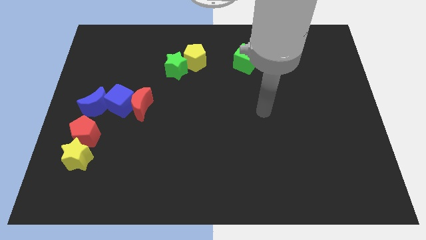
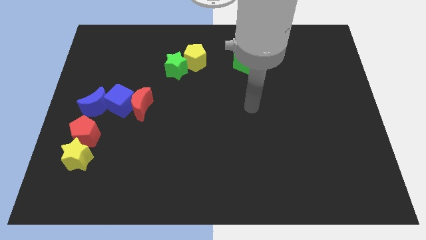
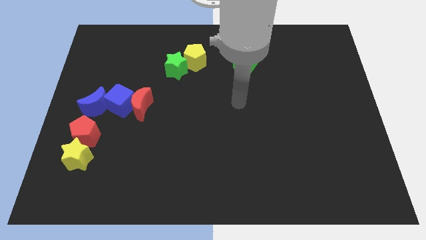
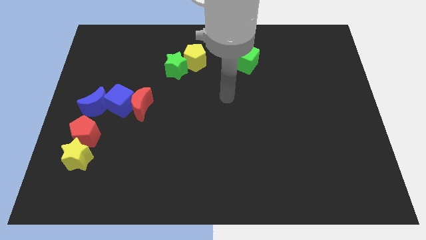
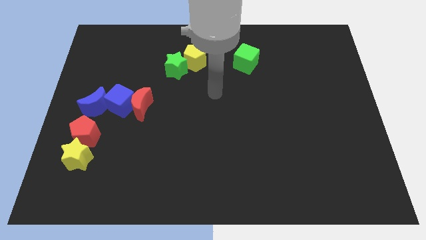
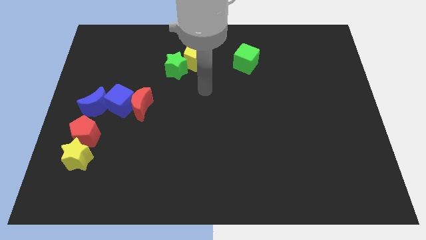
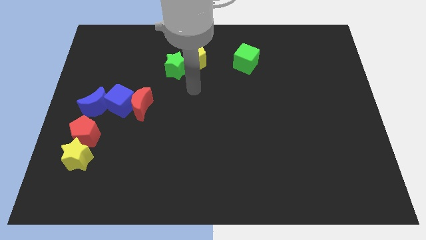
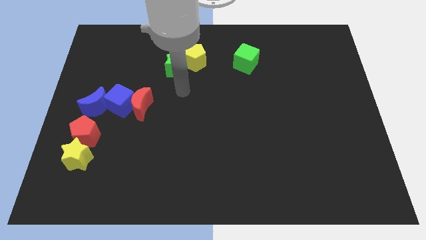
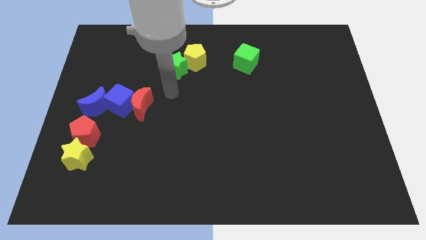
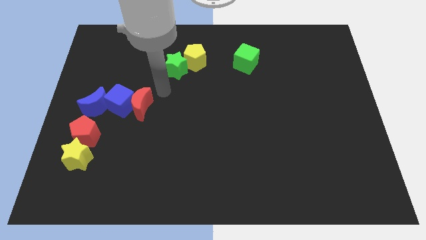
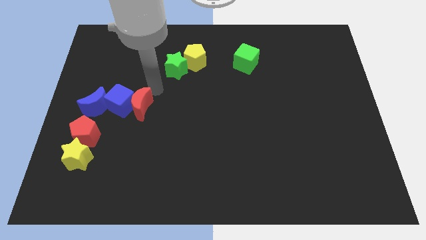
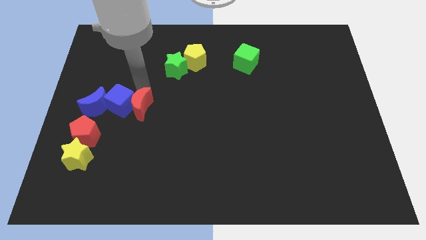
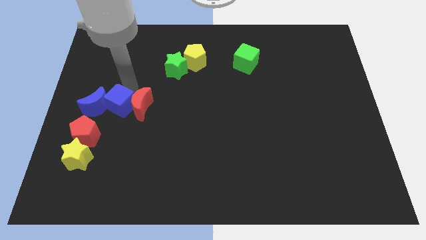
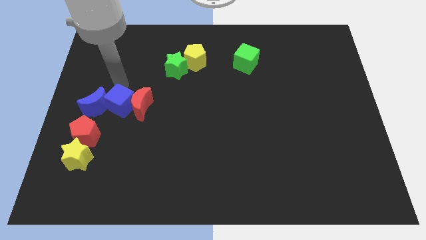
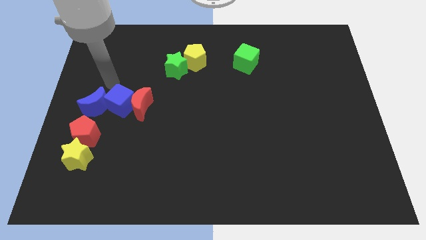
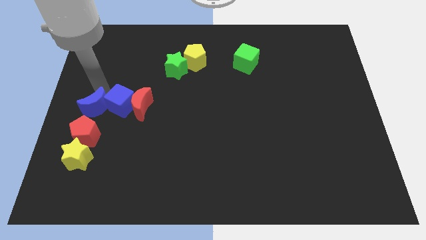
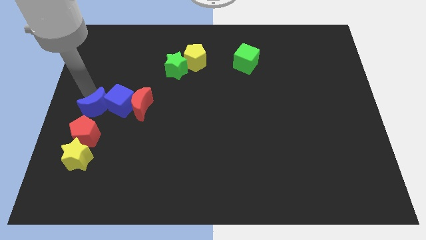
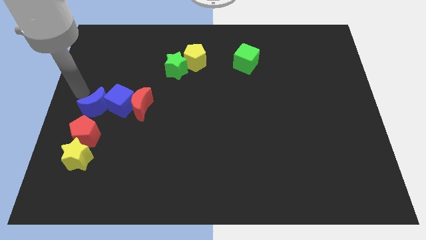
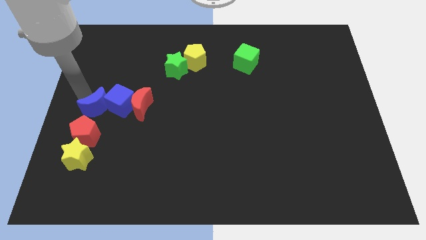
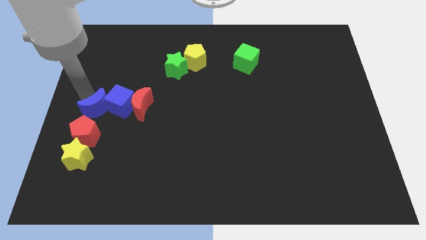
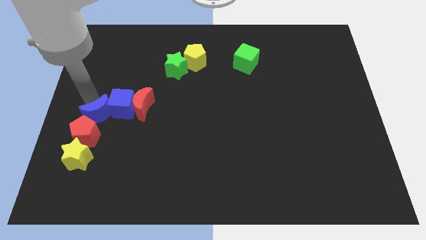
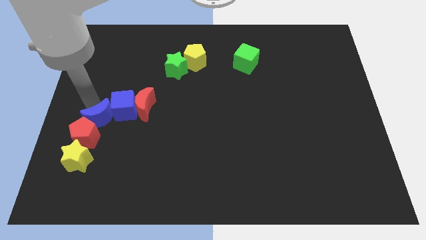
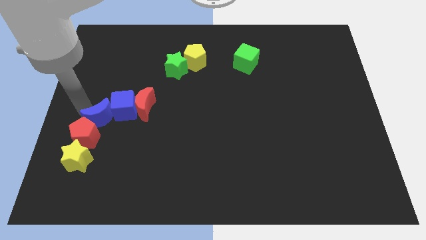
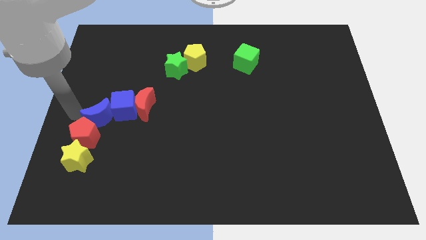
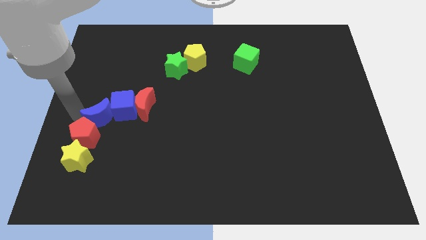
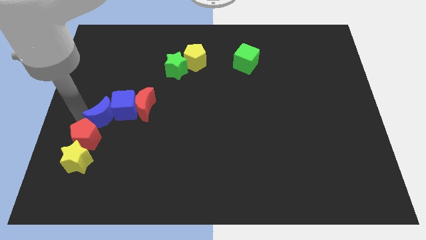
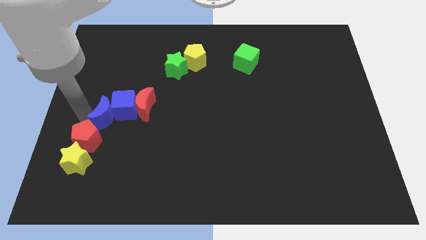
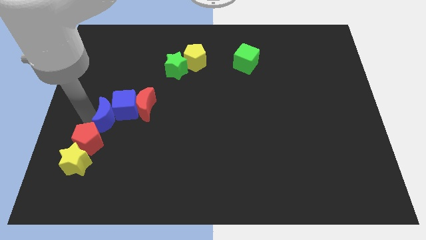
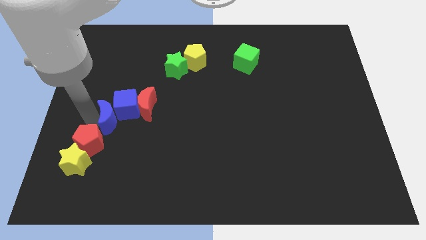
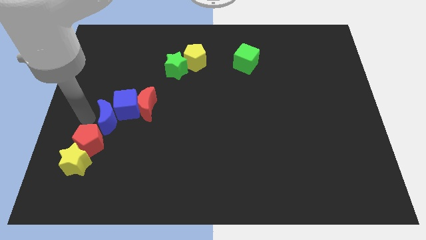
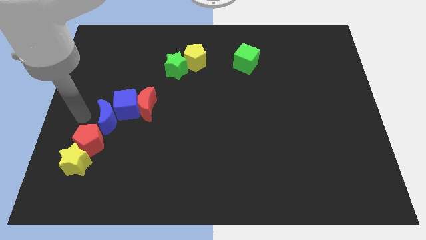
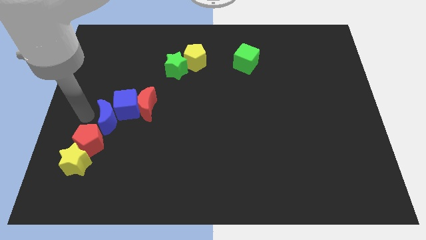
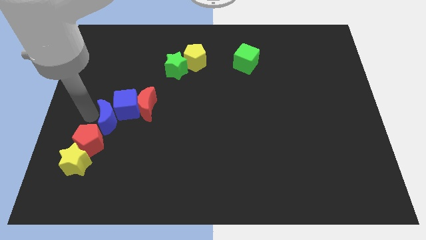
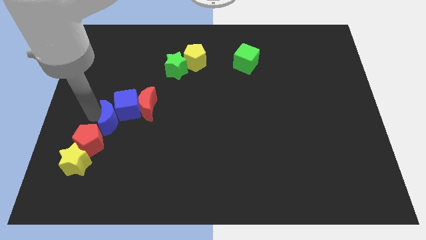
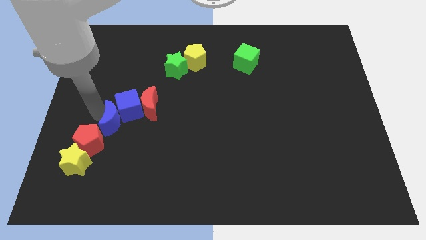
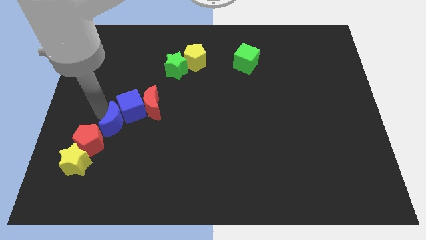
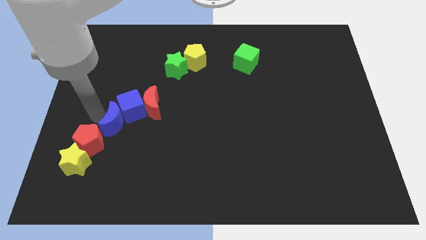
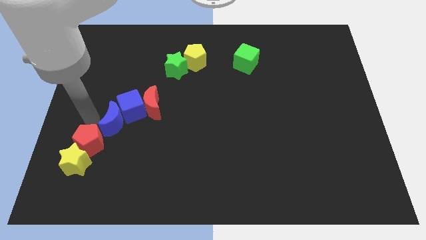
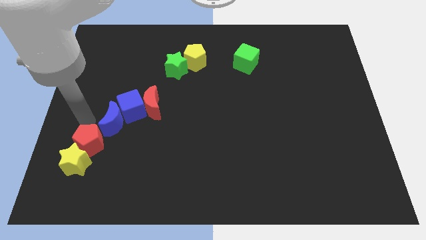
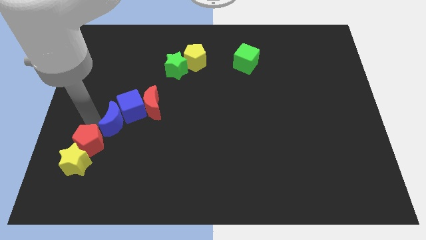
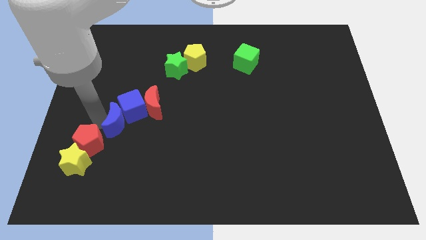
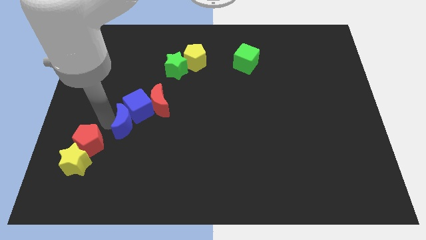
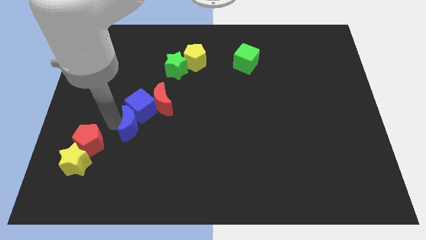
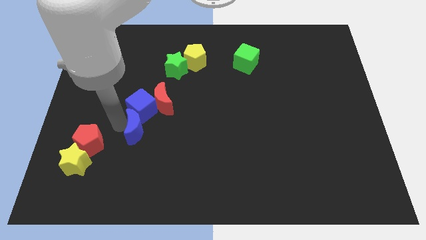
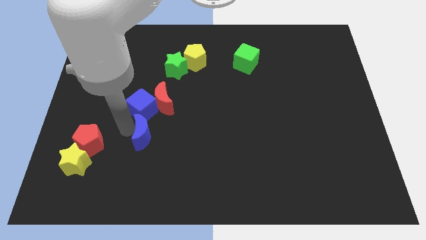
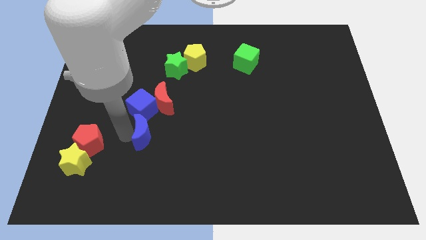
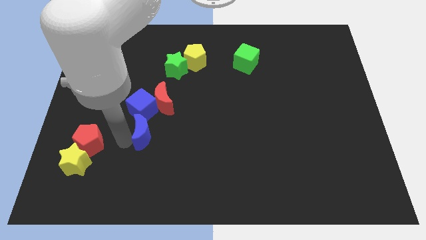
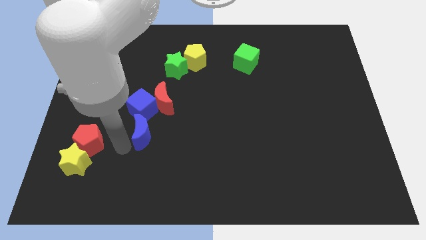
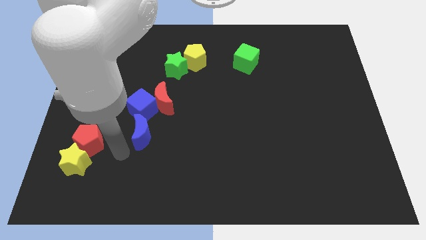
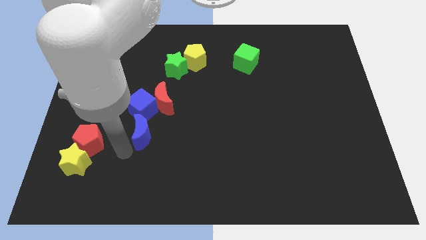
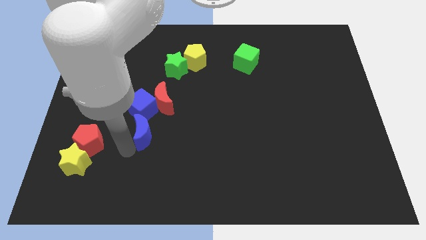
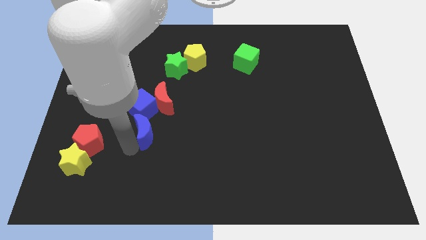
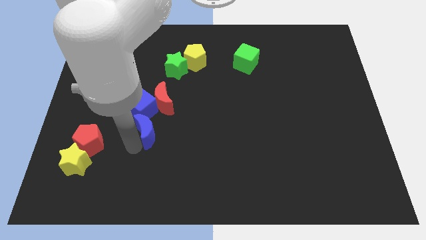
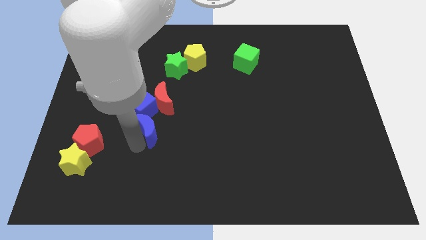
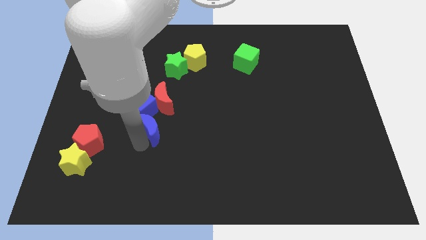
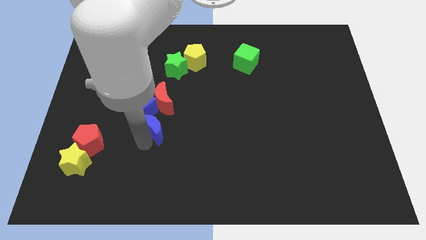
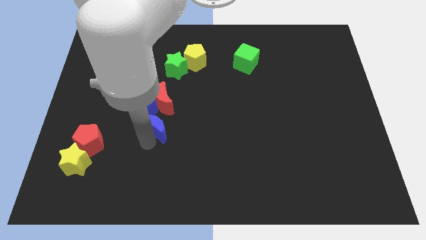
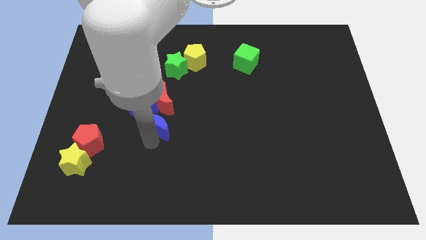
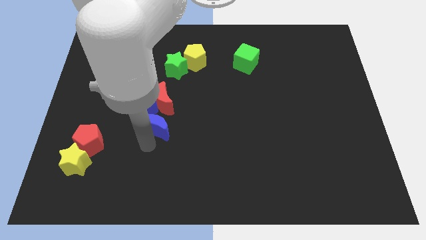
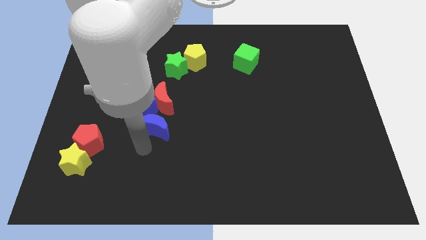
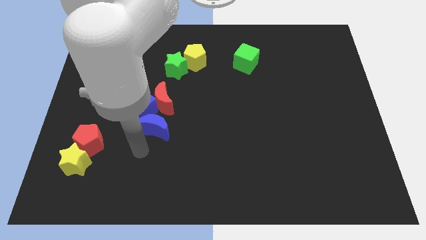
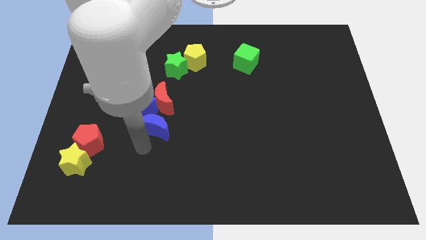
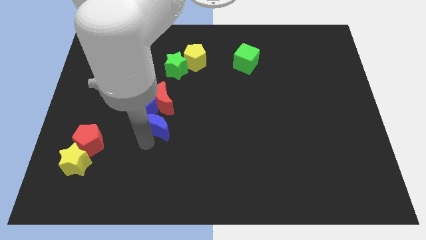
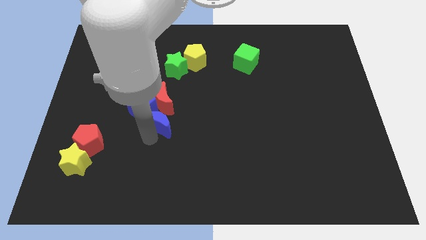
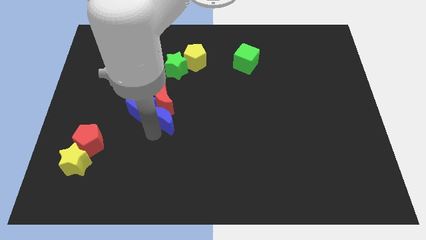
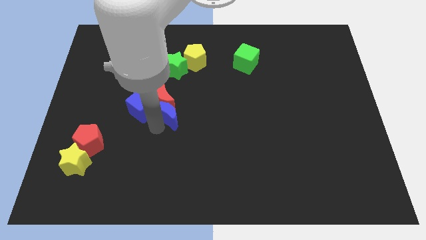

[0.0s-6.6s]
slide the blue moon to the middle

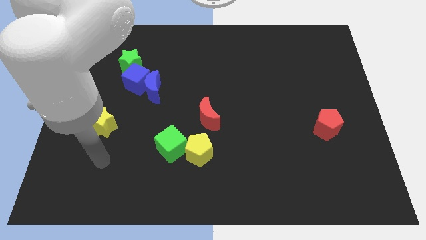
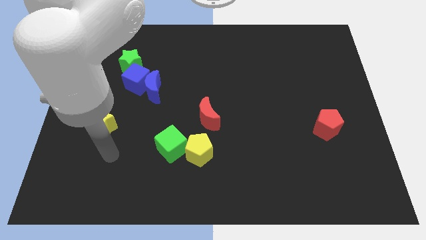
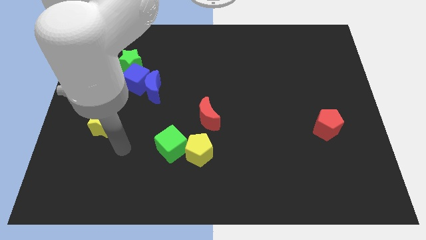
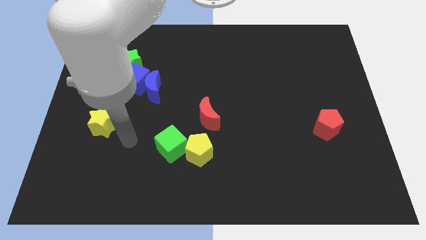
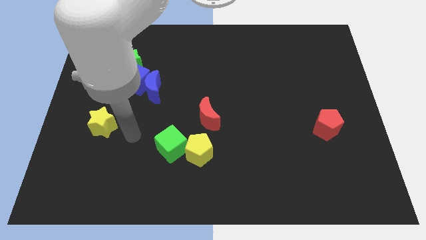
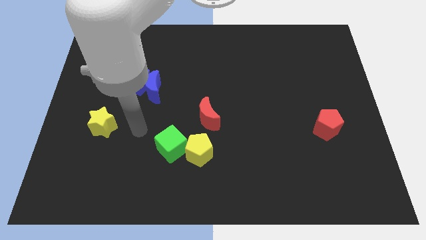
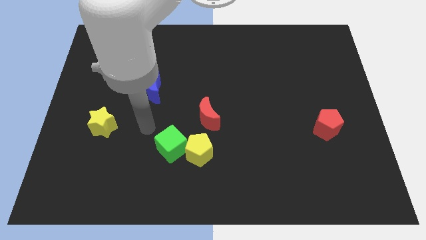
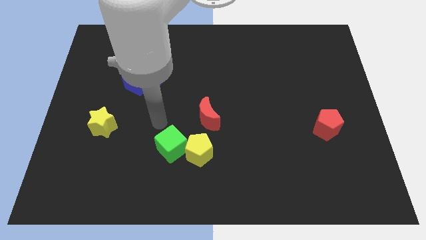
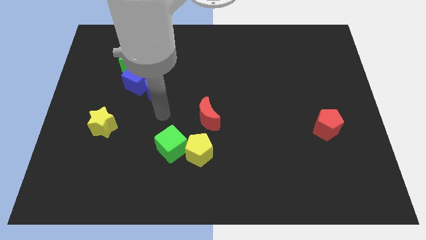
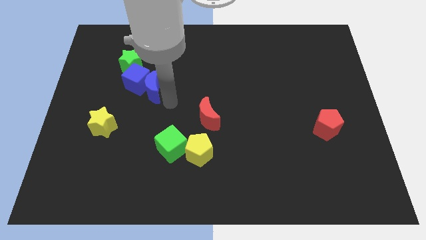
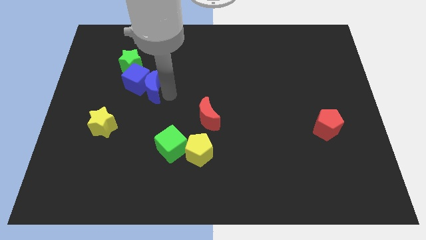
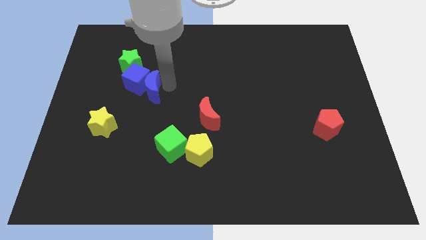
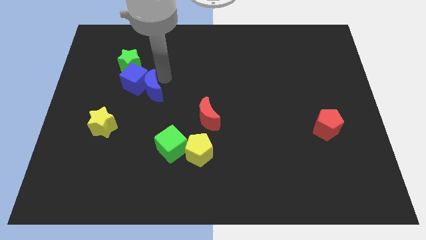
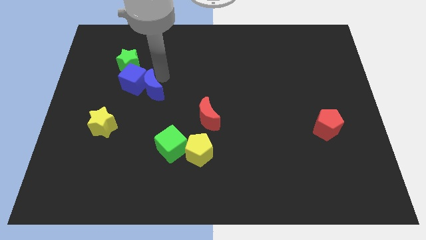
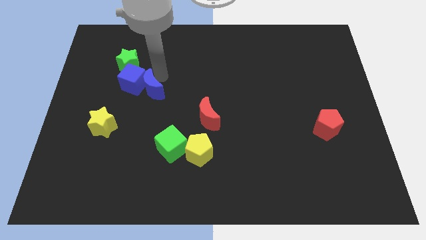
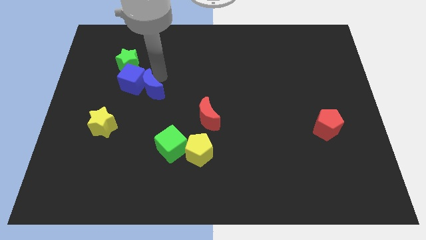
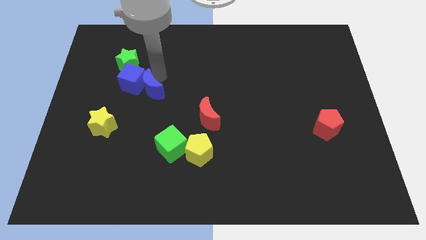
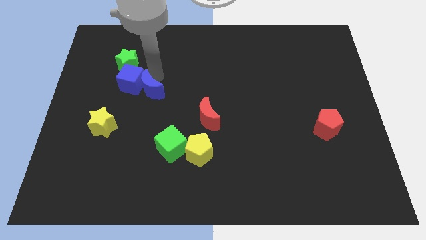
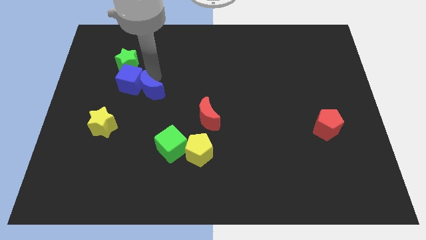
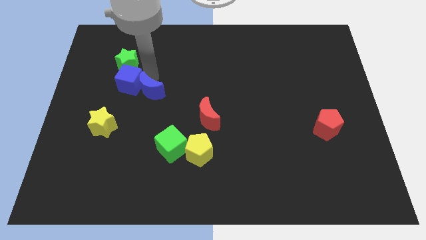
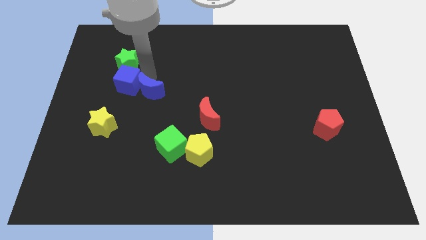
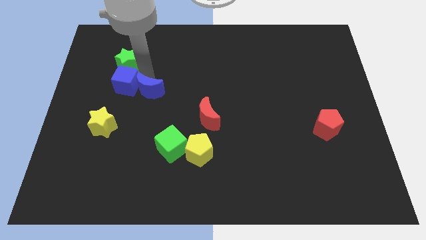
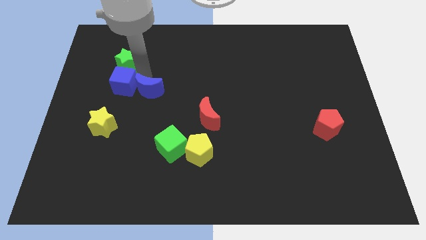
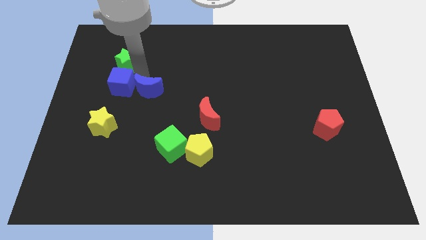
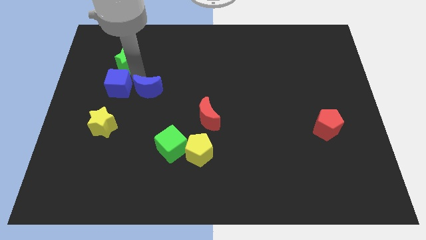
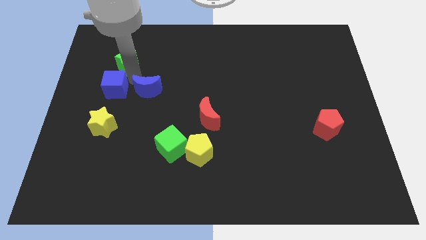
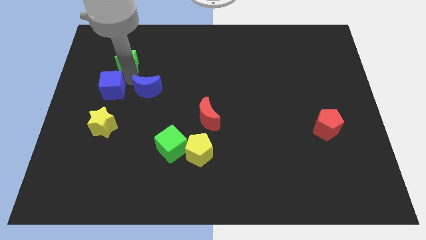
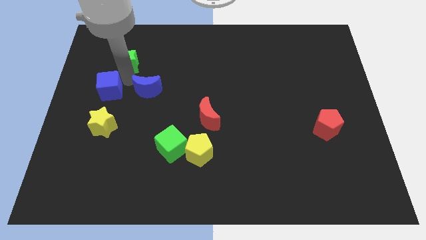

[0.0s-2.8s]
push the blue cube to the left side
